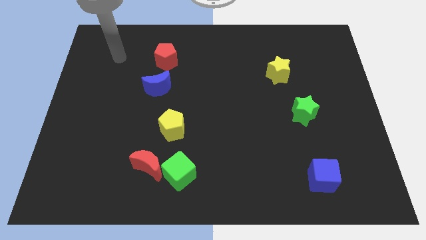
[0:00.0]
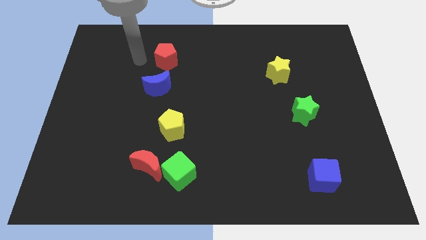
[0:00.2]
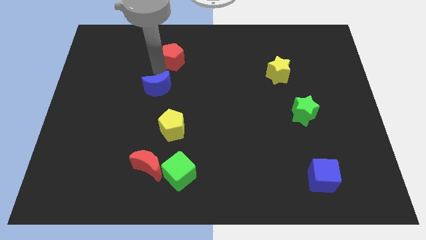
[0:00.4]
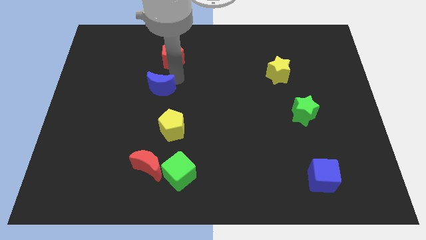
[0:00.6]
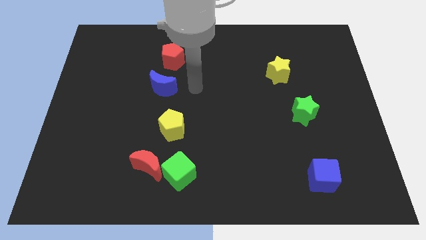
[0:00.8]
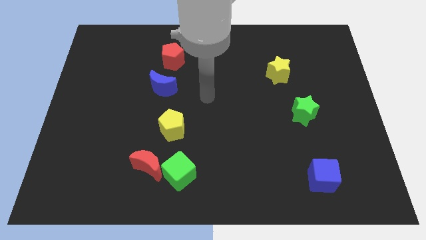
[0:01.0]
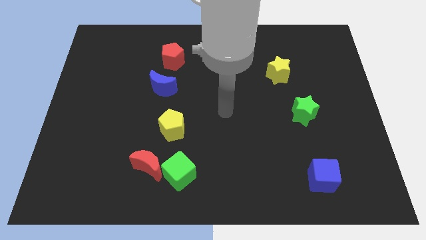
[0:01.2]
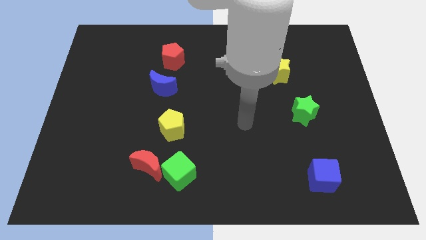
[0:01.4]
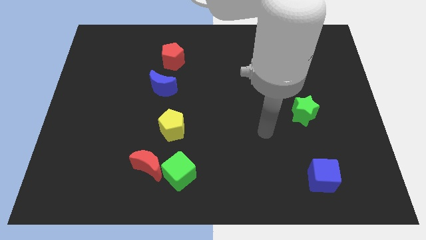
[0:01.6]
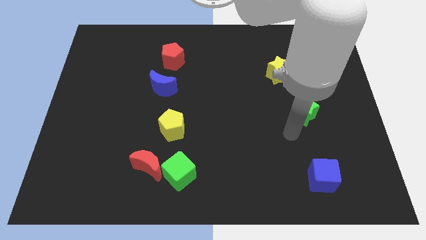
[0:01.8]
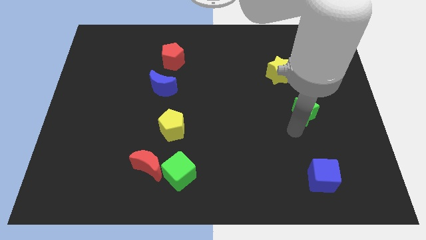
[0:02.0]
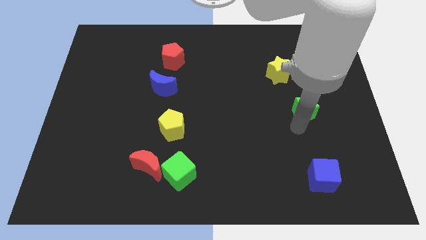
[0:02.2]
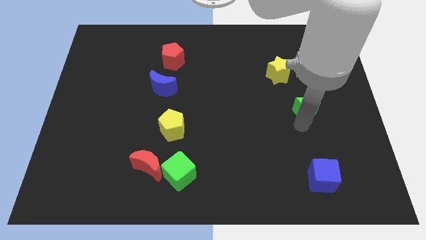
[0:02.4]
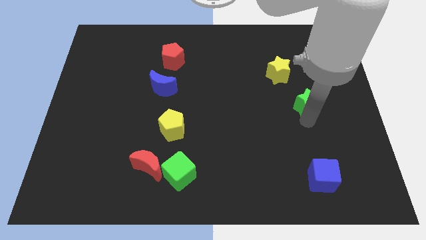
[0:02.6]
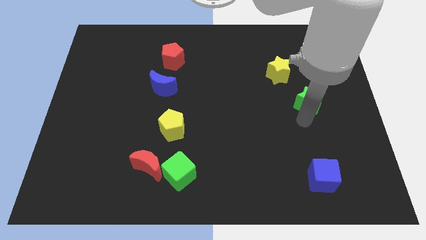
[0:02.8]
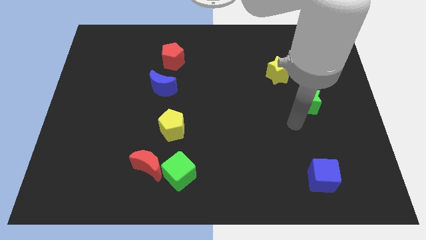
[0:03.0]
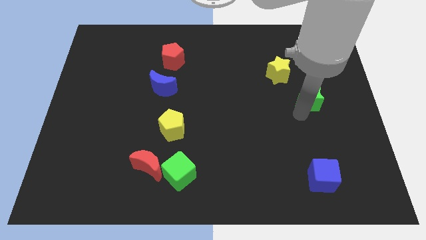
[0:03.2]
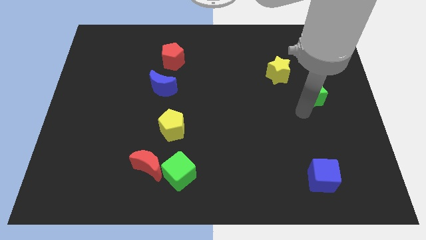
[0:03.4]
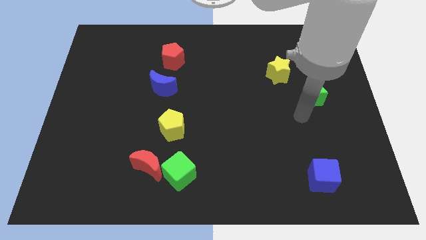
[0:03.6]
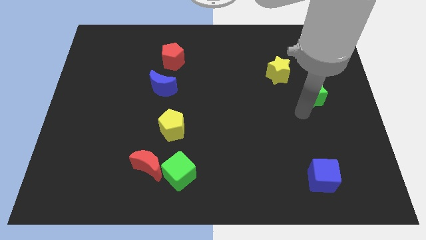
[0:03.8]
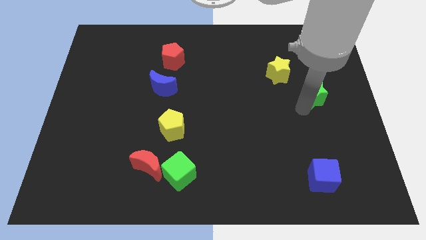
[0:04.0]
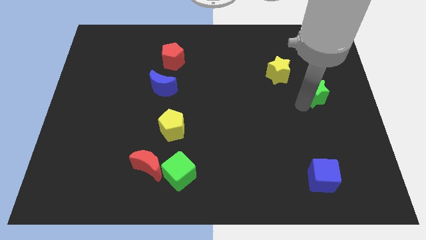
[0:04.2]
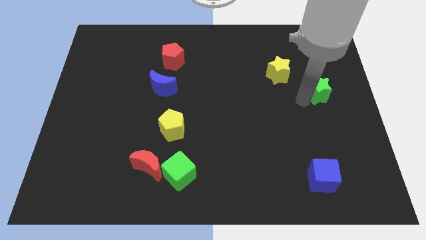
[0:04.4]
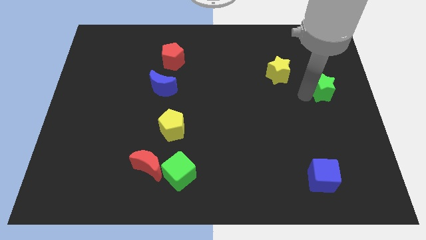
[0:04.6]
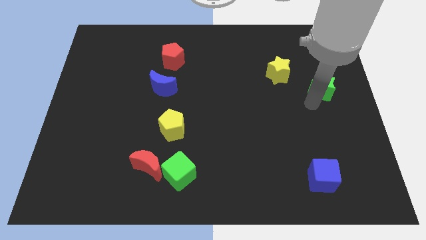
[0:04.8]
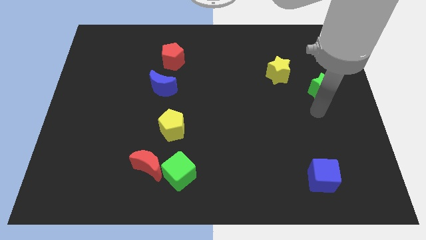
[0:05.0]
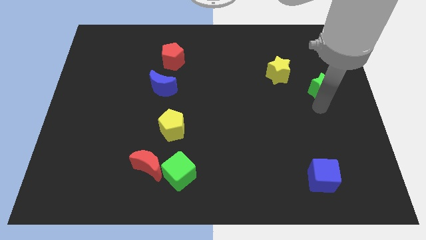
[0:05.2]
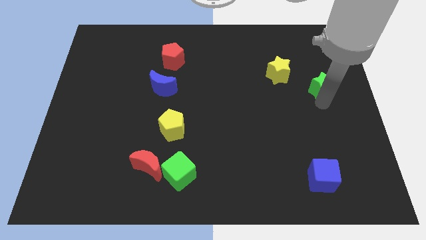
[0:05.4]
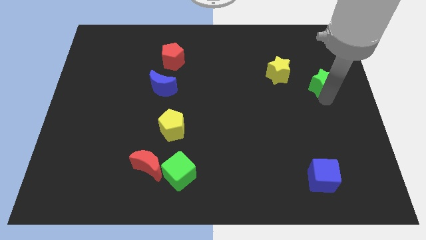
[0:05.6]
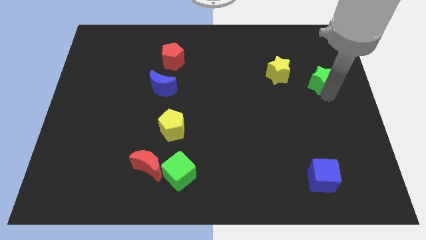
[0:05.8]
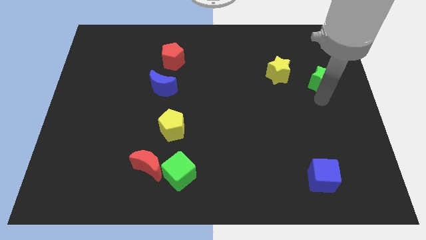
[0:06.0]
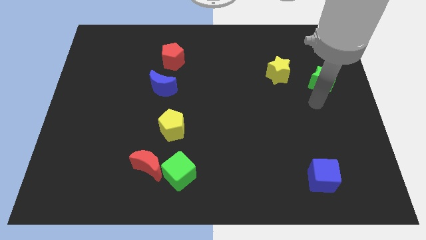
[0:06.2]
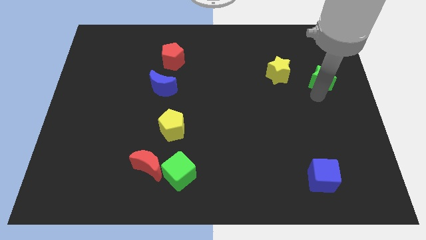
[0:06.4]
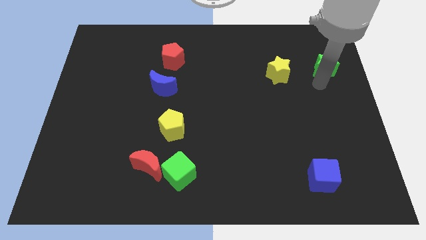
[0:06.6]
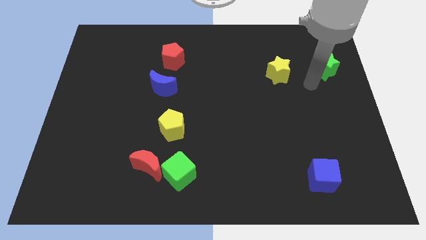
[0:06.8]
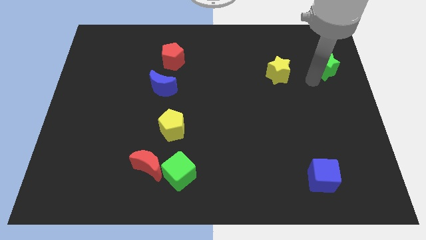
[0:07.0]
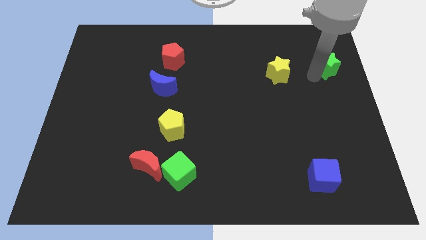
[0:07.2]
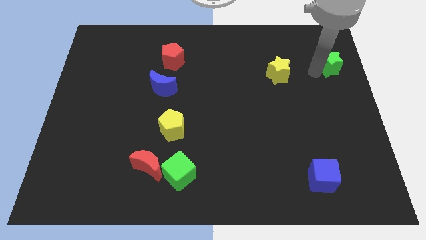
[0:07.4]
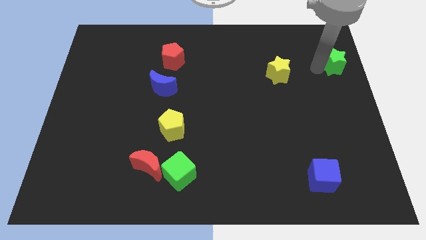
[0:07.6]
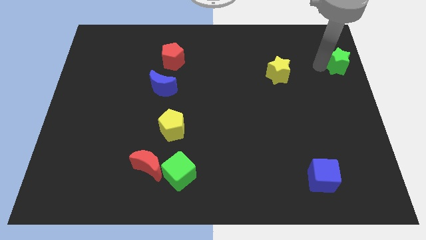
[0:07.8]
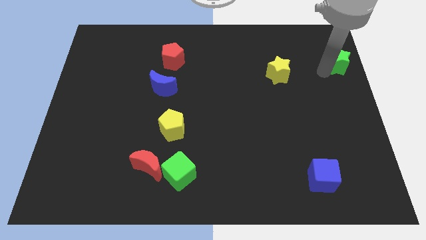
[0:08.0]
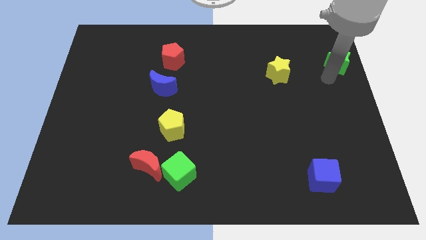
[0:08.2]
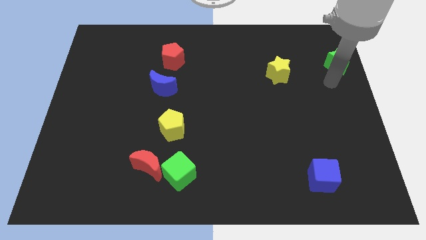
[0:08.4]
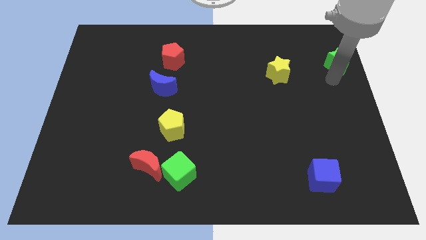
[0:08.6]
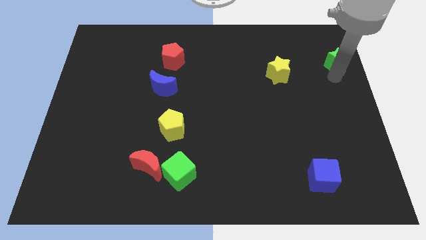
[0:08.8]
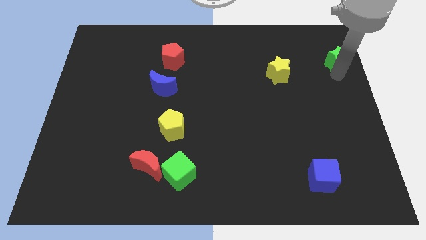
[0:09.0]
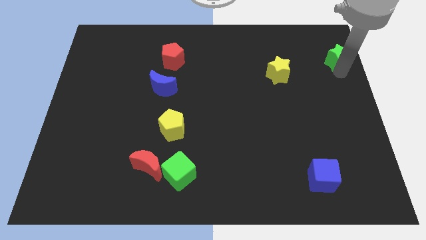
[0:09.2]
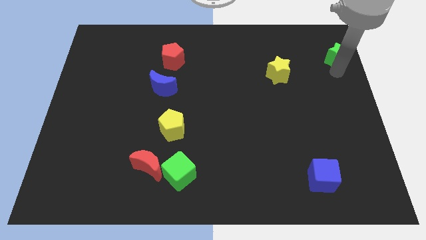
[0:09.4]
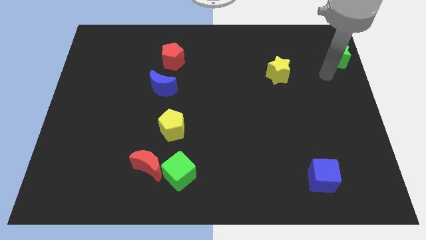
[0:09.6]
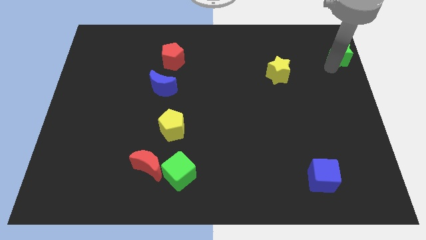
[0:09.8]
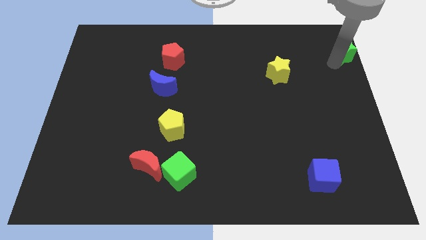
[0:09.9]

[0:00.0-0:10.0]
slide the green star to the top right

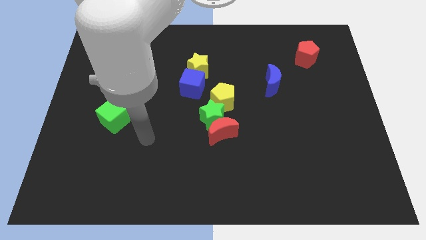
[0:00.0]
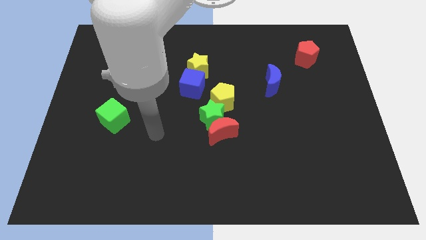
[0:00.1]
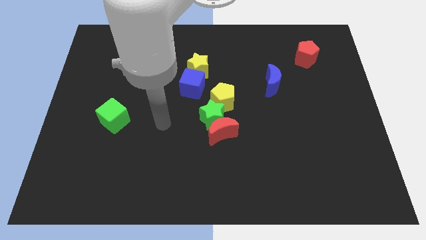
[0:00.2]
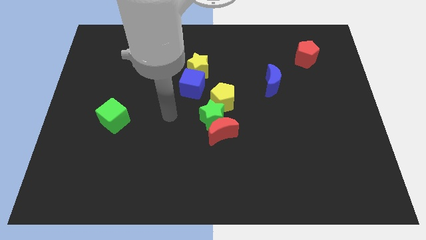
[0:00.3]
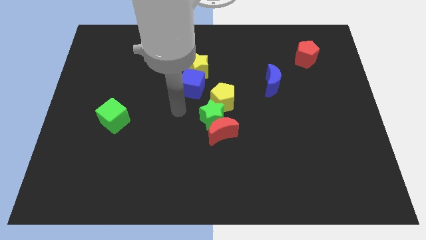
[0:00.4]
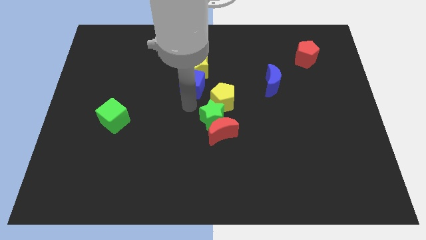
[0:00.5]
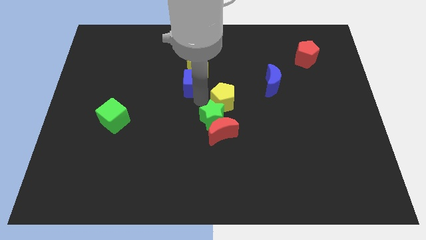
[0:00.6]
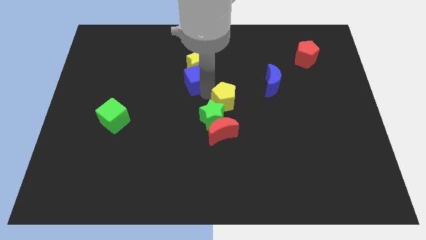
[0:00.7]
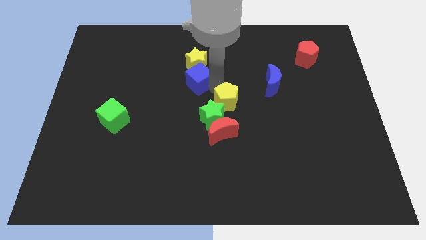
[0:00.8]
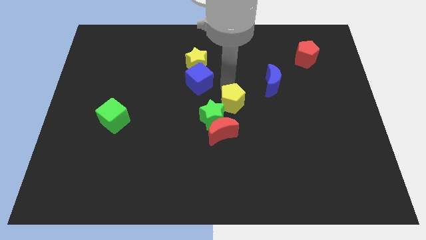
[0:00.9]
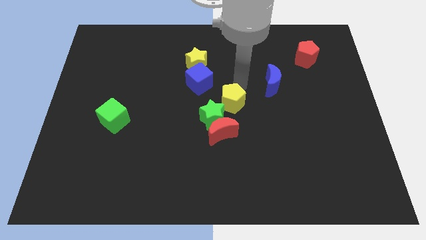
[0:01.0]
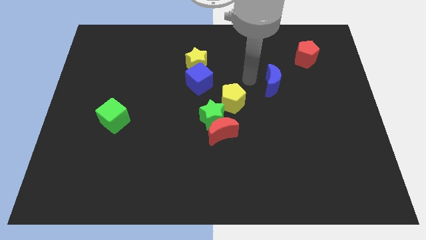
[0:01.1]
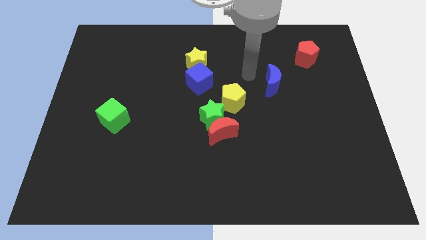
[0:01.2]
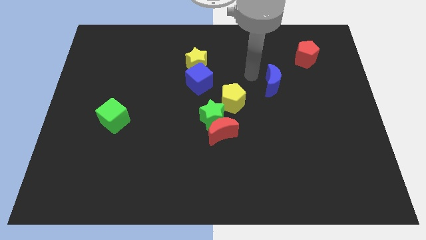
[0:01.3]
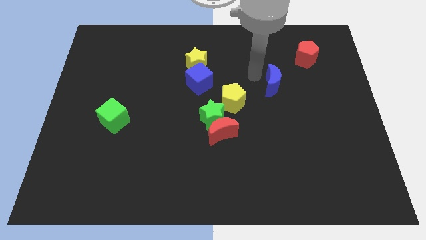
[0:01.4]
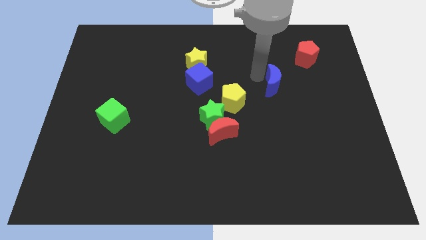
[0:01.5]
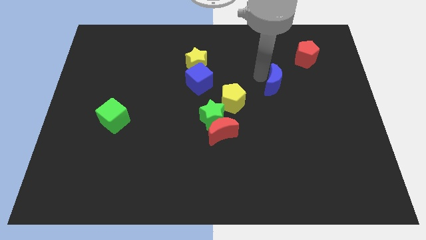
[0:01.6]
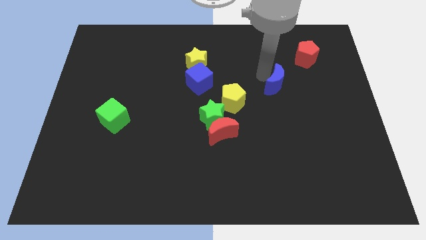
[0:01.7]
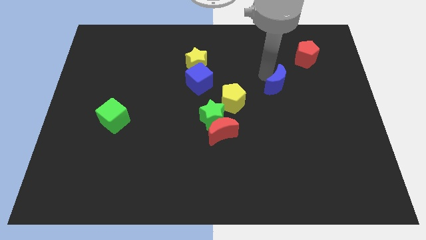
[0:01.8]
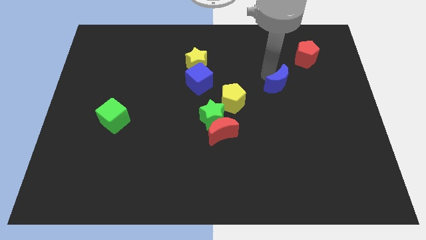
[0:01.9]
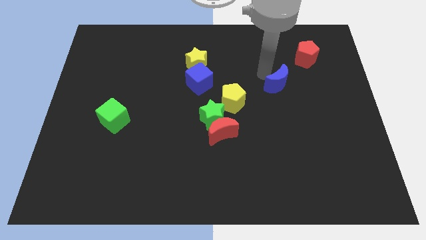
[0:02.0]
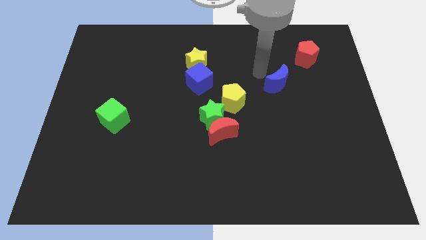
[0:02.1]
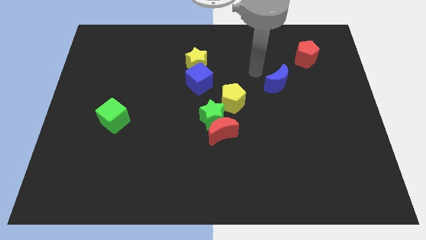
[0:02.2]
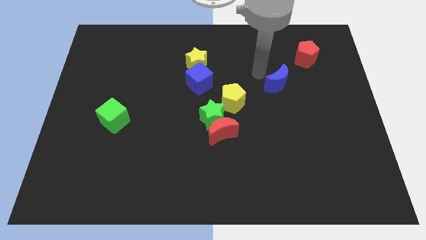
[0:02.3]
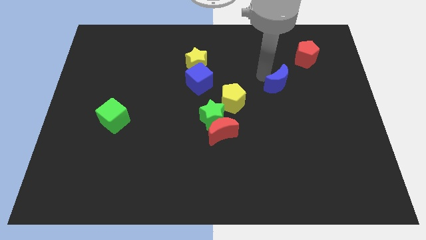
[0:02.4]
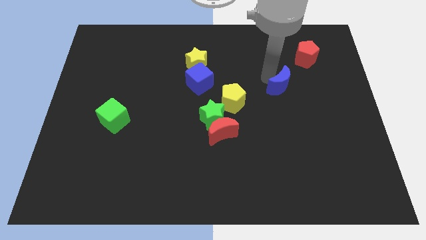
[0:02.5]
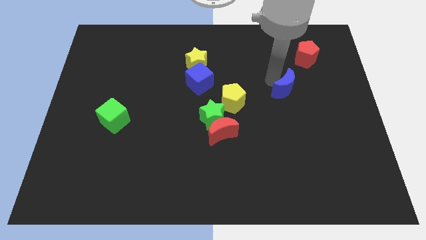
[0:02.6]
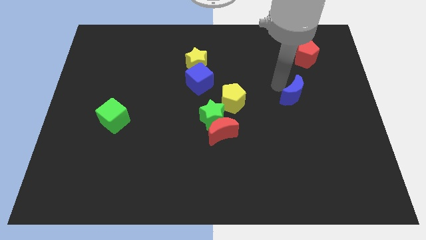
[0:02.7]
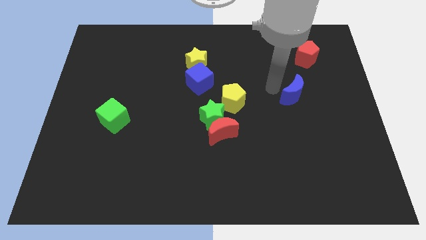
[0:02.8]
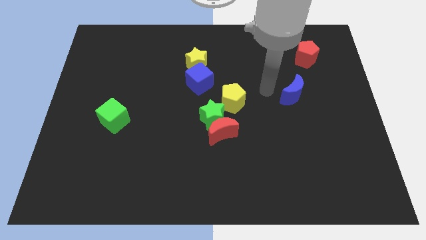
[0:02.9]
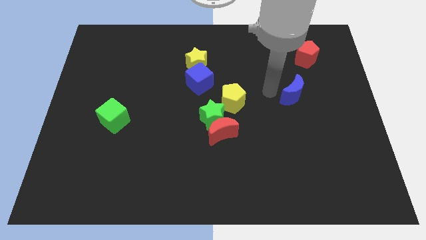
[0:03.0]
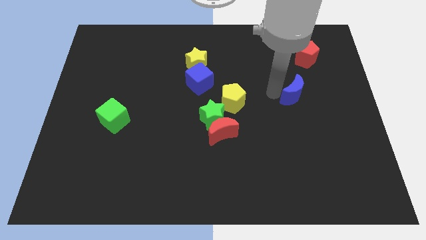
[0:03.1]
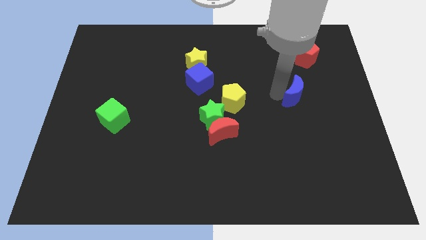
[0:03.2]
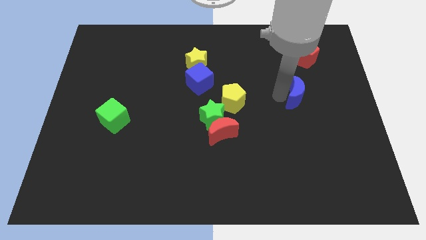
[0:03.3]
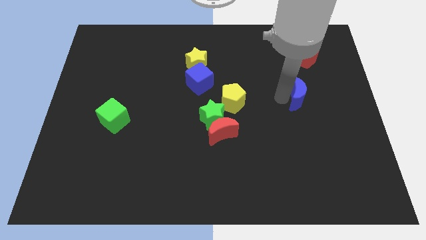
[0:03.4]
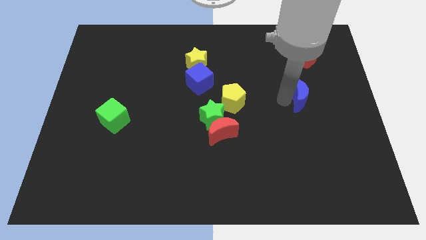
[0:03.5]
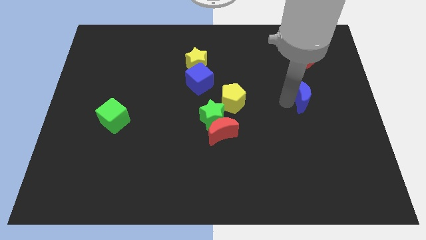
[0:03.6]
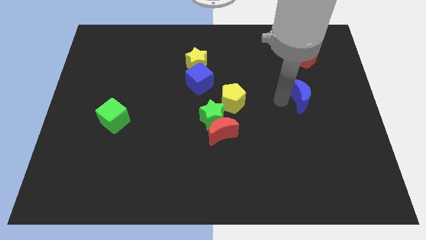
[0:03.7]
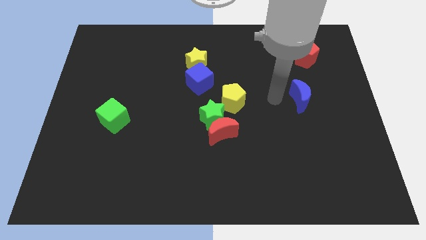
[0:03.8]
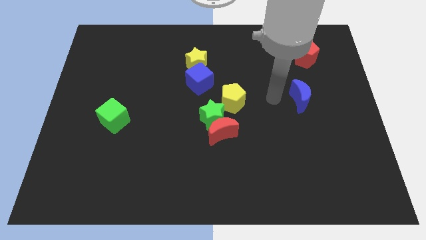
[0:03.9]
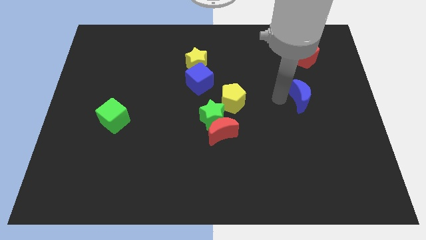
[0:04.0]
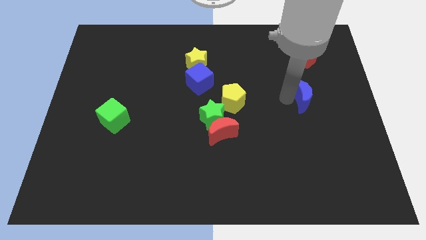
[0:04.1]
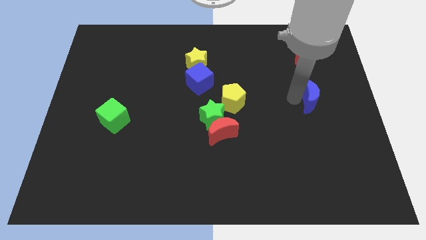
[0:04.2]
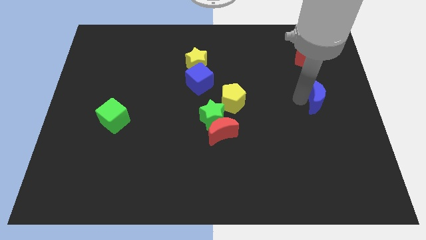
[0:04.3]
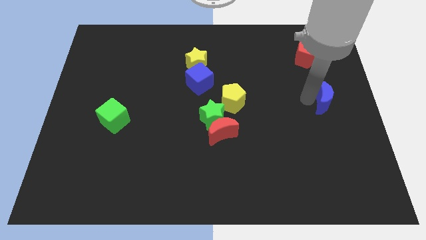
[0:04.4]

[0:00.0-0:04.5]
put the blue moon to the right side
